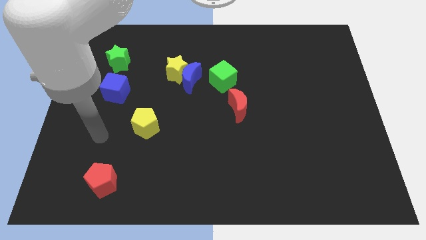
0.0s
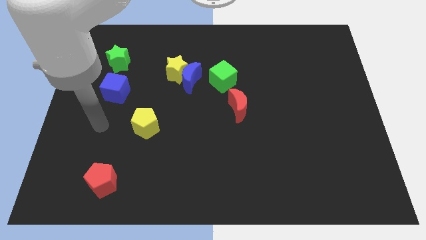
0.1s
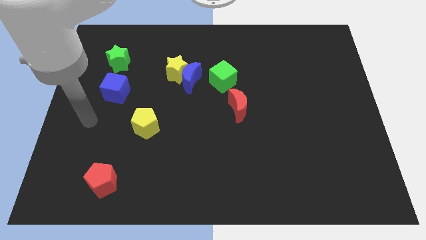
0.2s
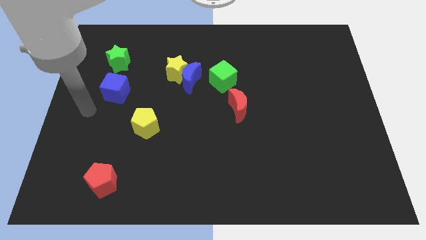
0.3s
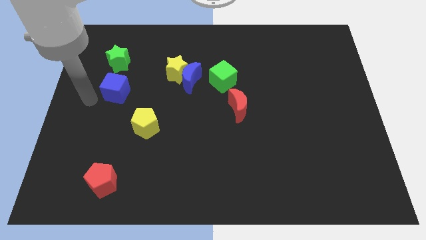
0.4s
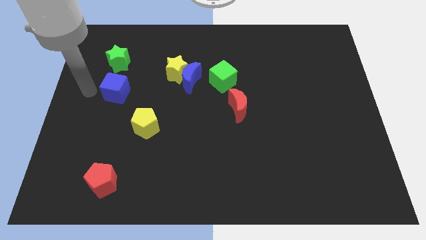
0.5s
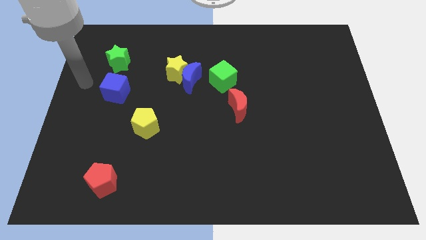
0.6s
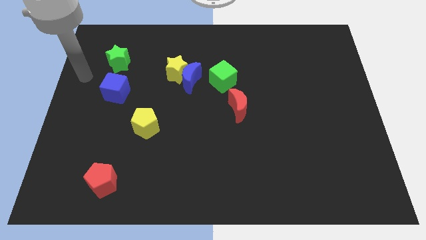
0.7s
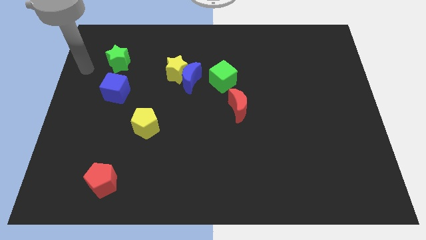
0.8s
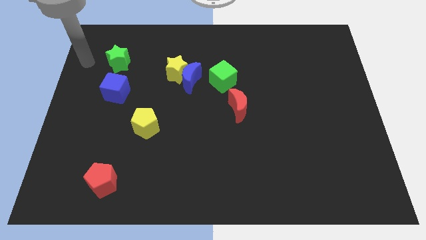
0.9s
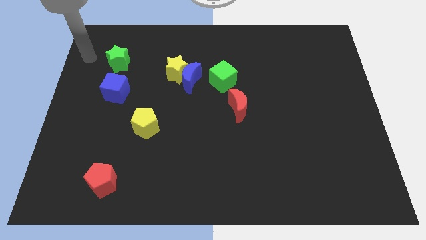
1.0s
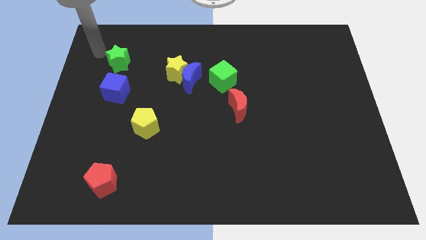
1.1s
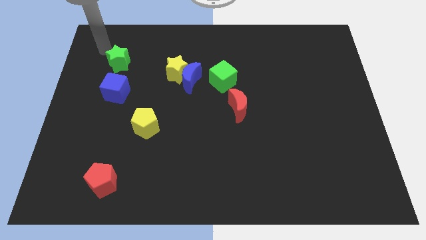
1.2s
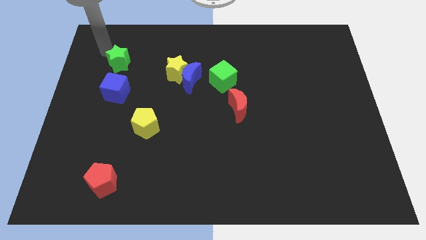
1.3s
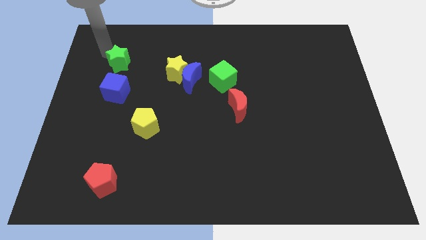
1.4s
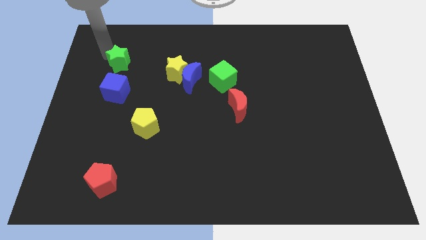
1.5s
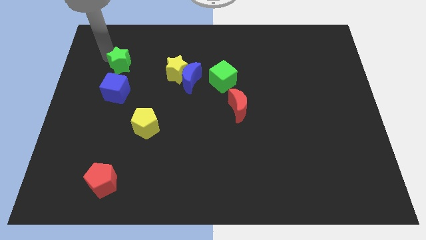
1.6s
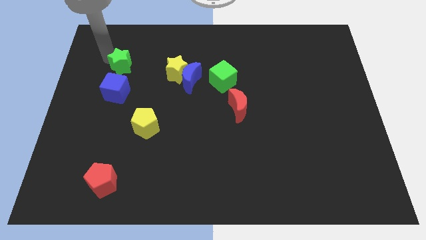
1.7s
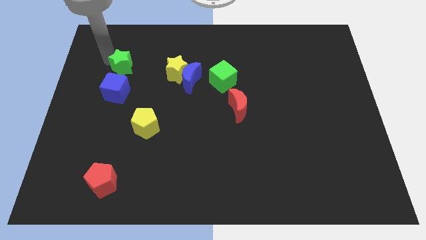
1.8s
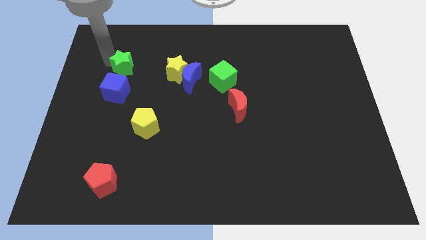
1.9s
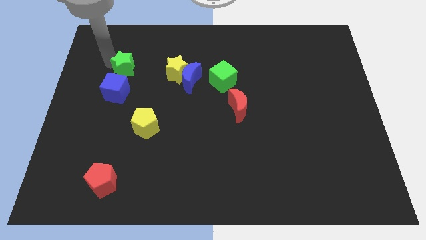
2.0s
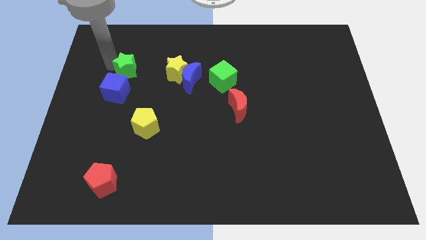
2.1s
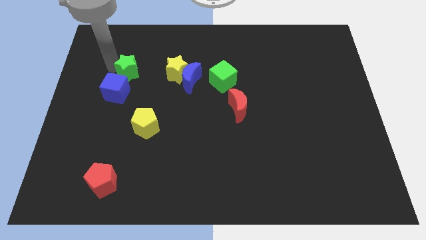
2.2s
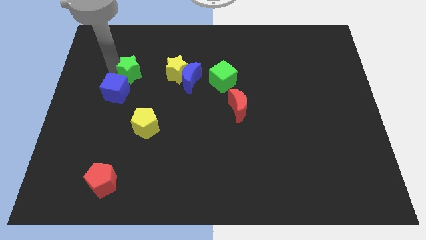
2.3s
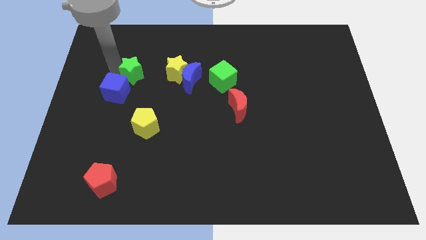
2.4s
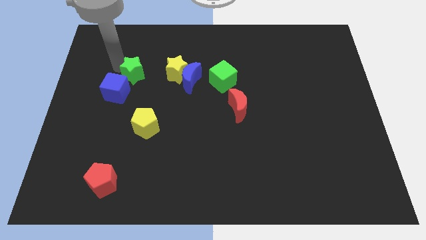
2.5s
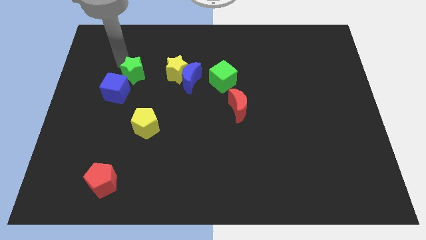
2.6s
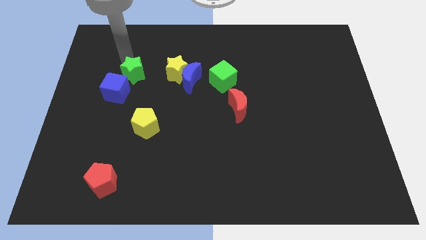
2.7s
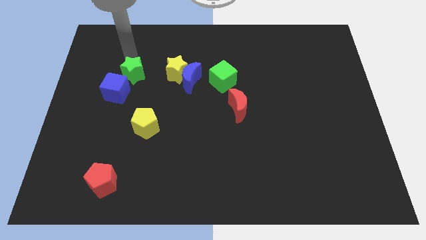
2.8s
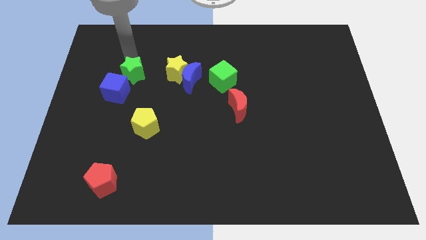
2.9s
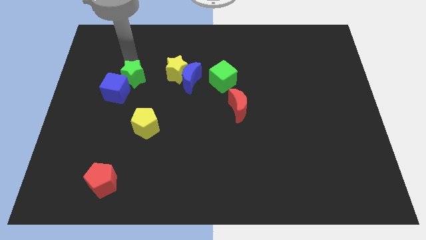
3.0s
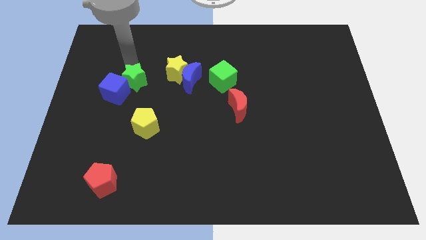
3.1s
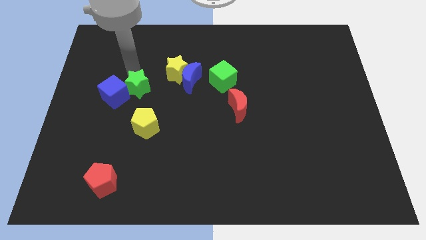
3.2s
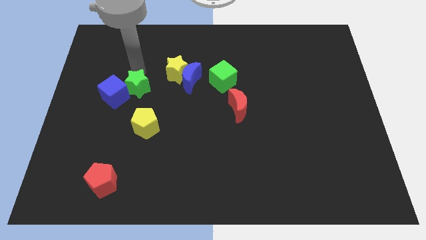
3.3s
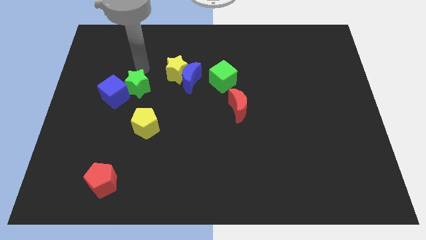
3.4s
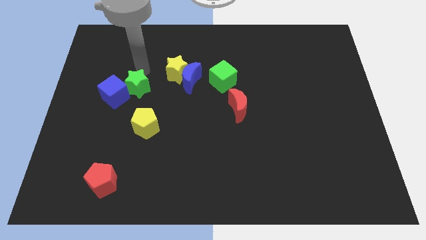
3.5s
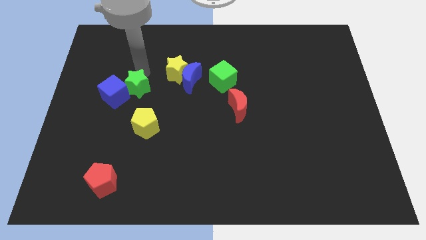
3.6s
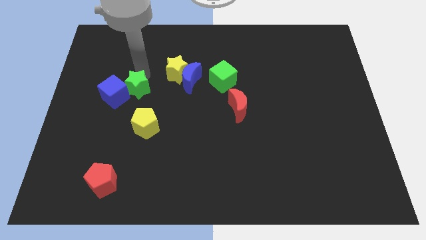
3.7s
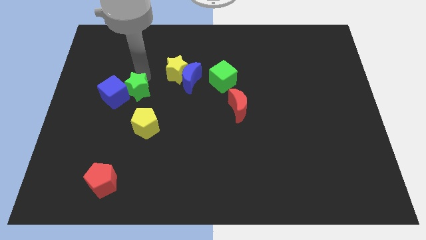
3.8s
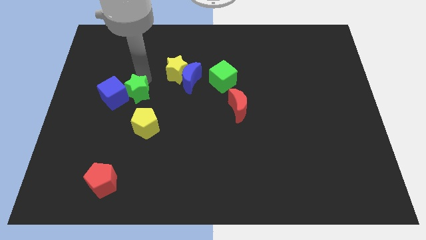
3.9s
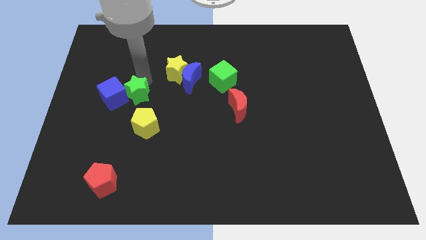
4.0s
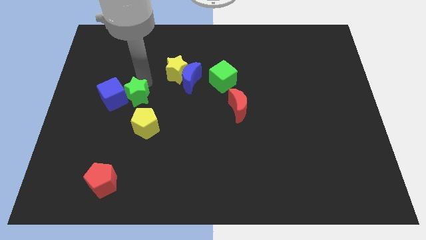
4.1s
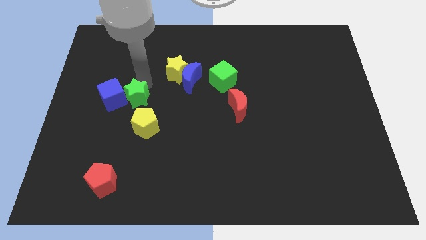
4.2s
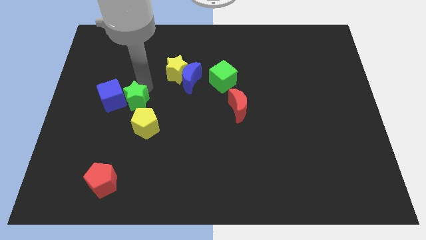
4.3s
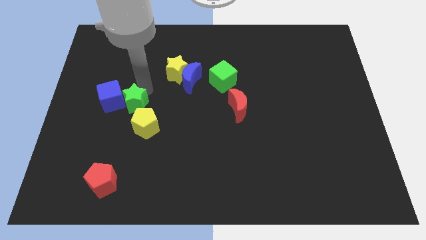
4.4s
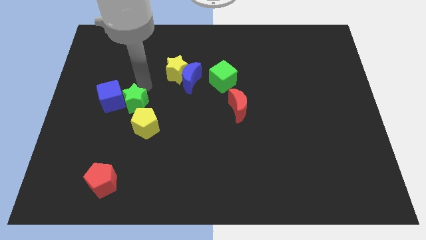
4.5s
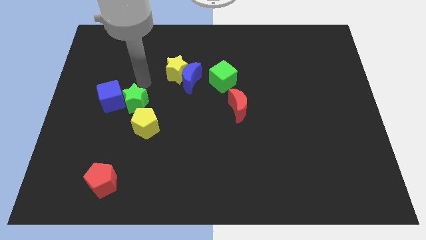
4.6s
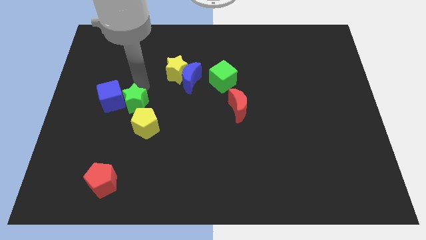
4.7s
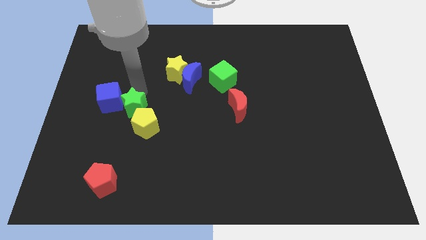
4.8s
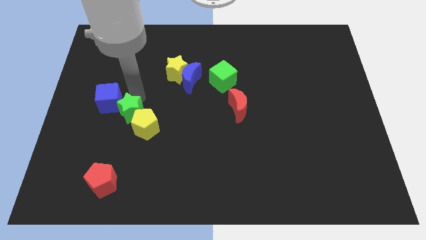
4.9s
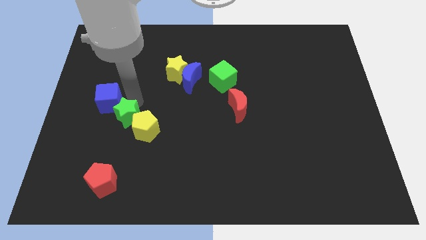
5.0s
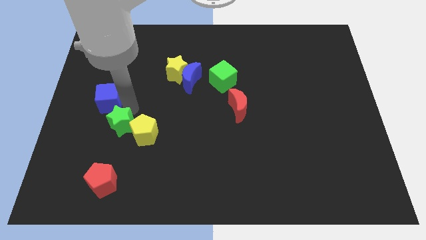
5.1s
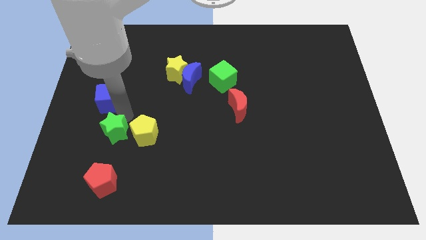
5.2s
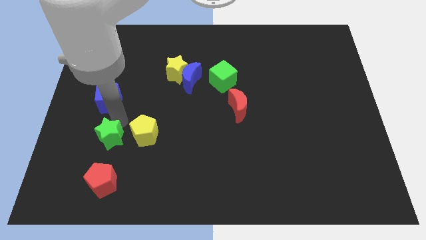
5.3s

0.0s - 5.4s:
move the green star to the bottom left of the yellow pentagon

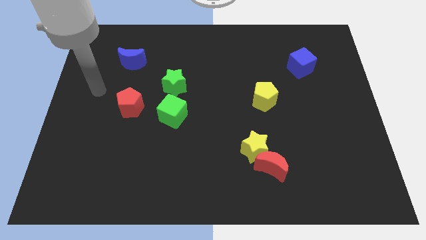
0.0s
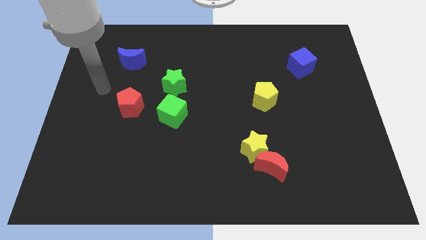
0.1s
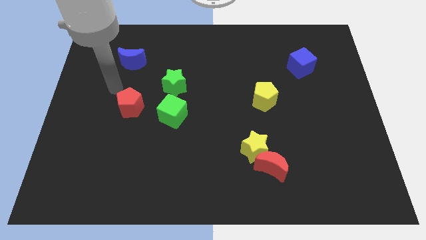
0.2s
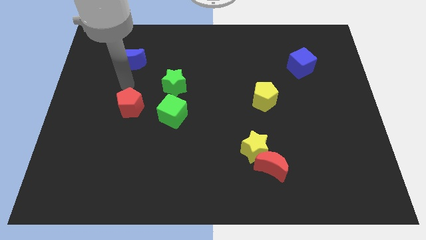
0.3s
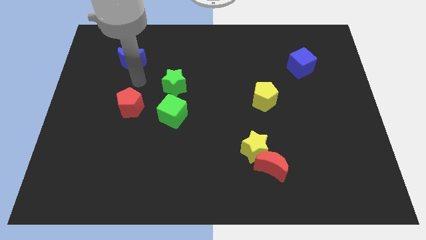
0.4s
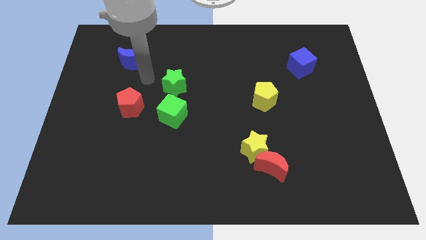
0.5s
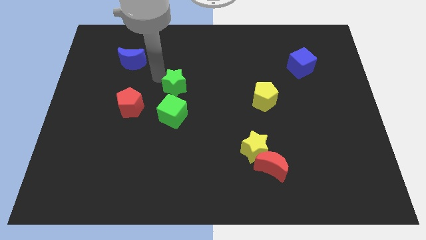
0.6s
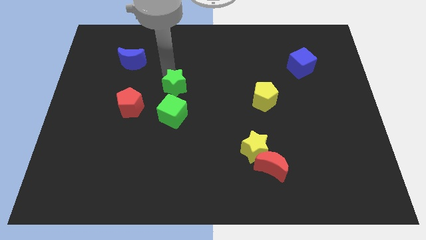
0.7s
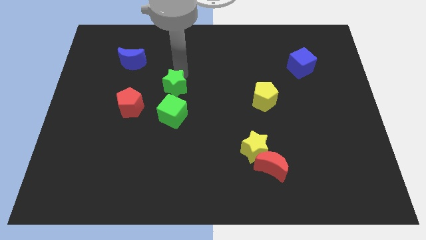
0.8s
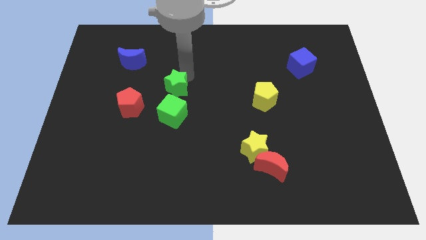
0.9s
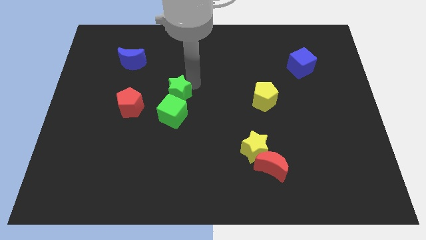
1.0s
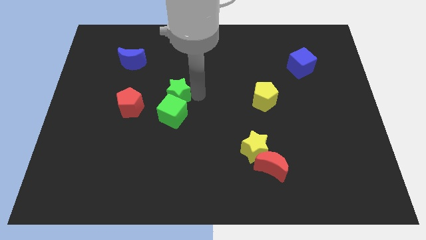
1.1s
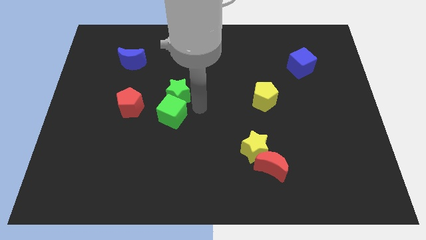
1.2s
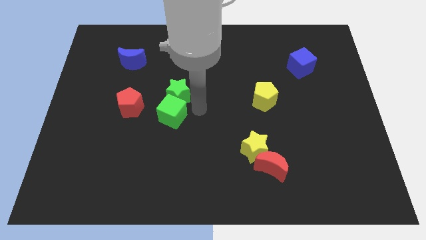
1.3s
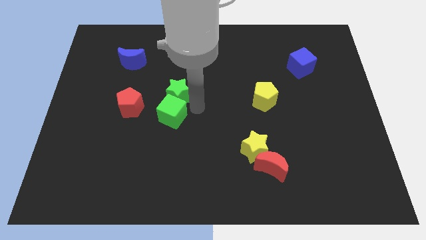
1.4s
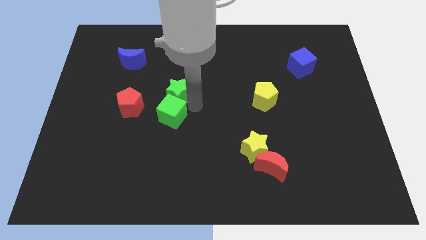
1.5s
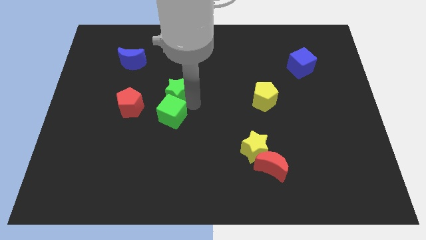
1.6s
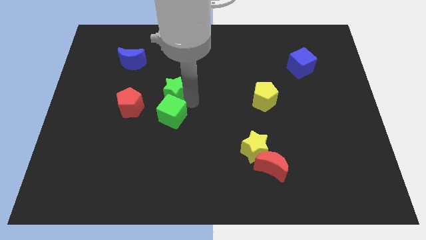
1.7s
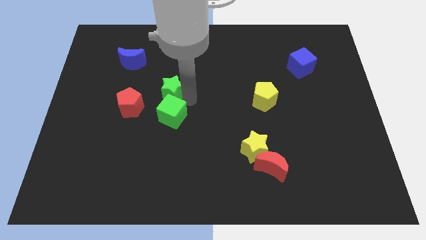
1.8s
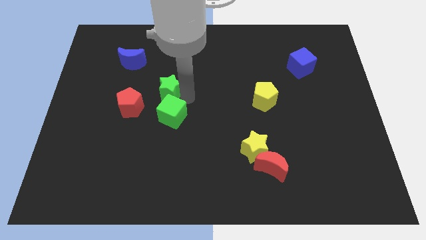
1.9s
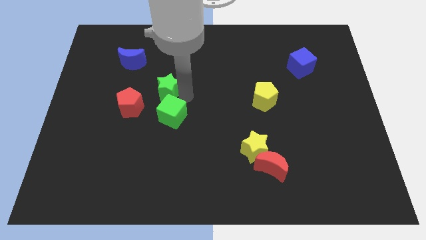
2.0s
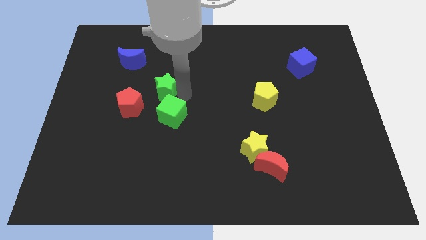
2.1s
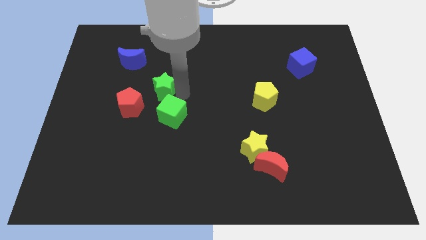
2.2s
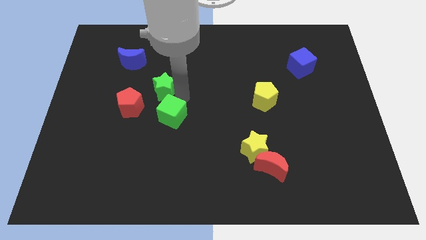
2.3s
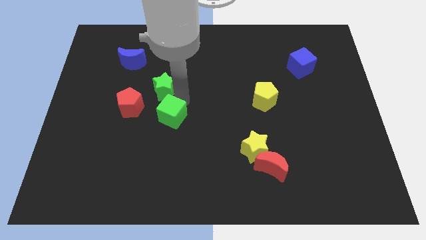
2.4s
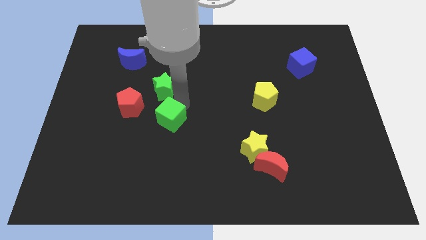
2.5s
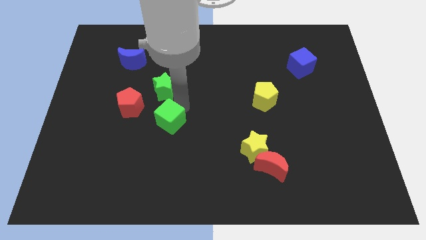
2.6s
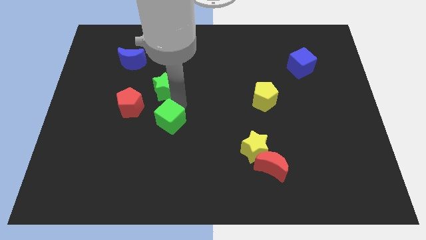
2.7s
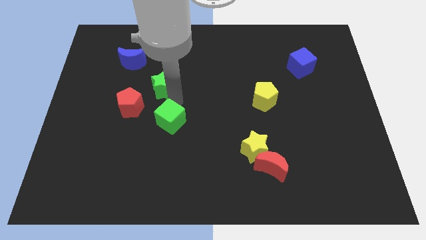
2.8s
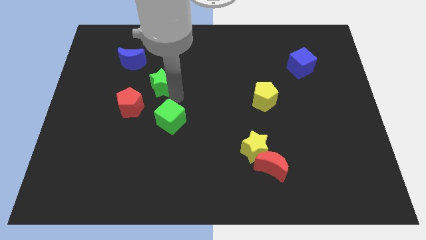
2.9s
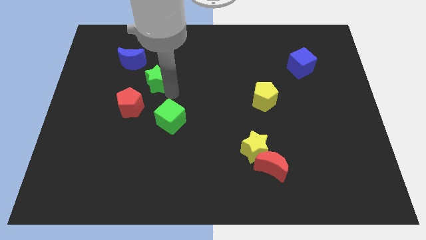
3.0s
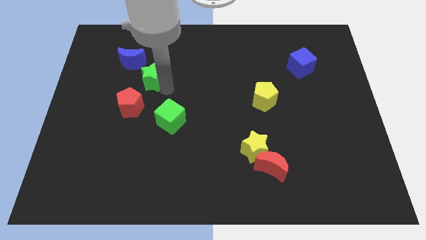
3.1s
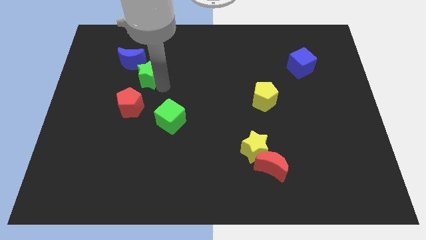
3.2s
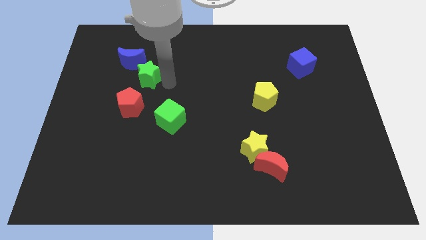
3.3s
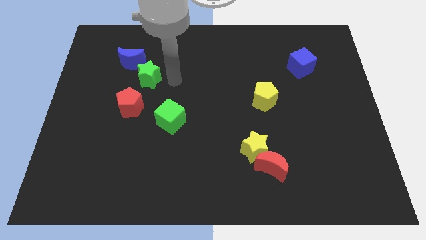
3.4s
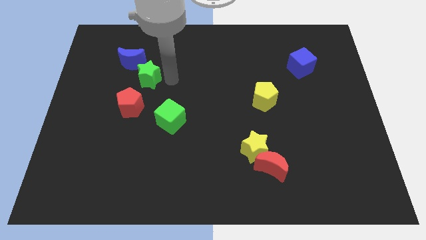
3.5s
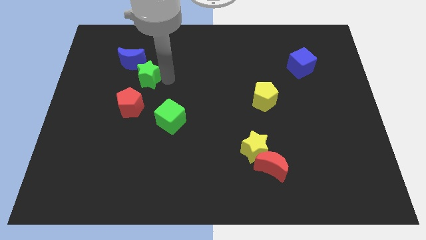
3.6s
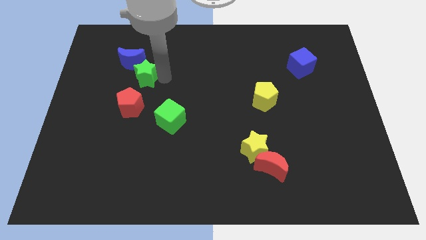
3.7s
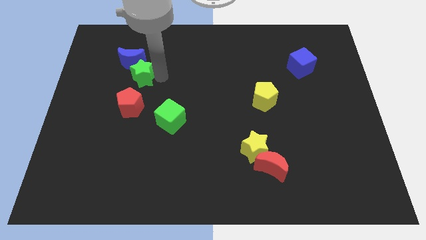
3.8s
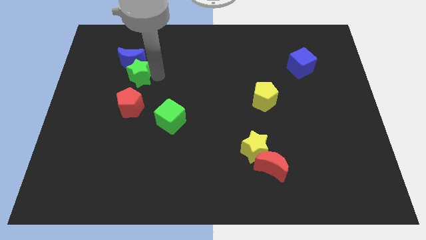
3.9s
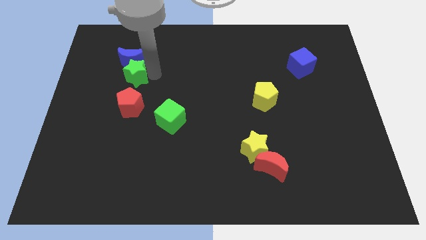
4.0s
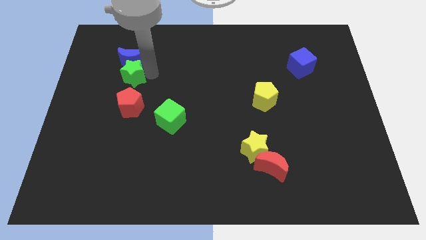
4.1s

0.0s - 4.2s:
push the green star to the bottom left side of the blue moon
